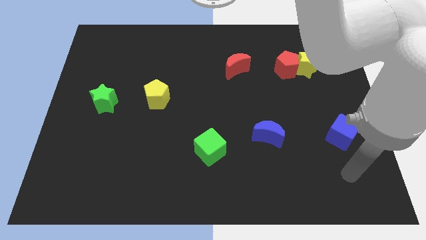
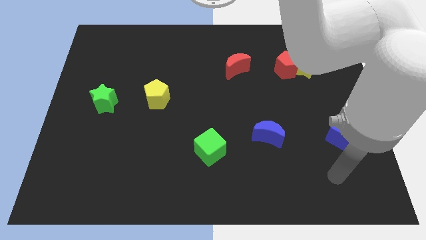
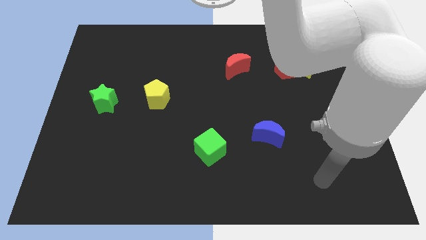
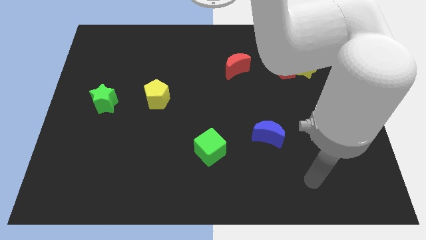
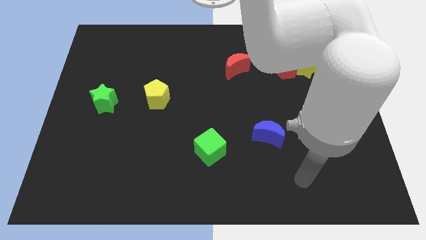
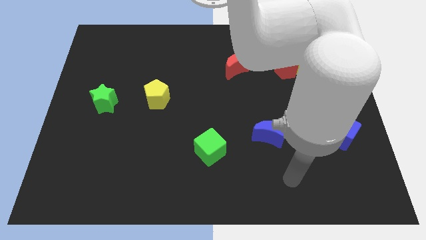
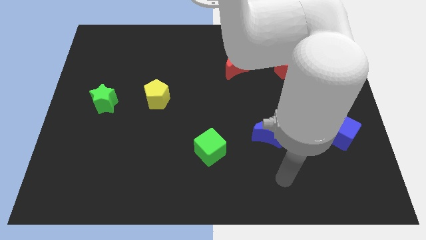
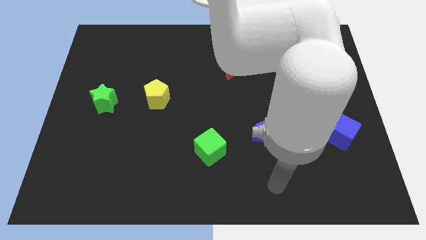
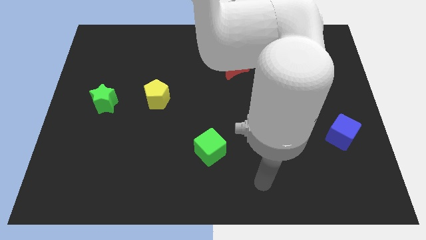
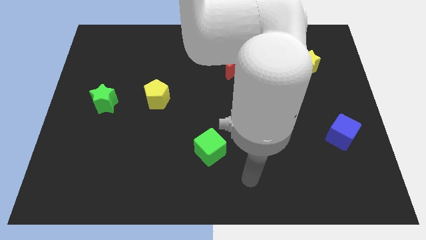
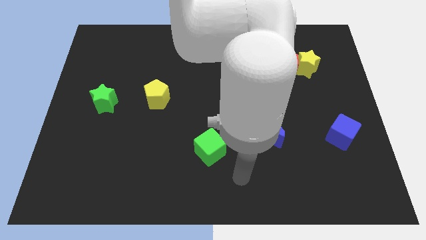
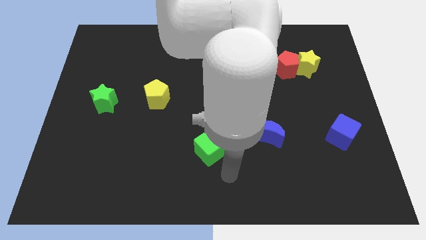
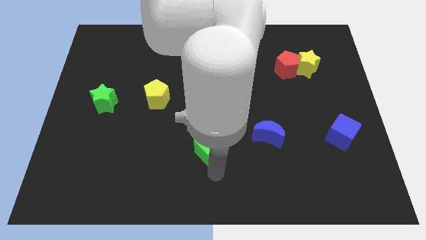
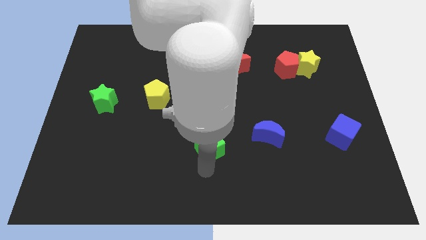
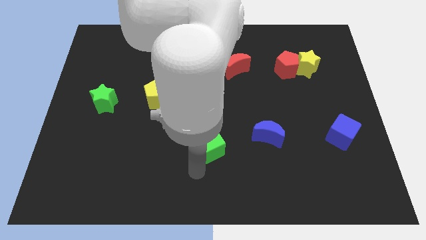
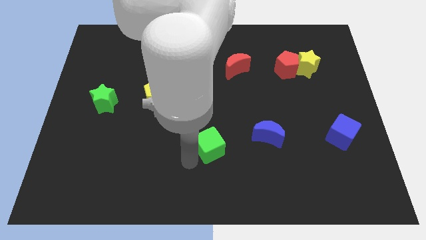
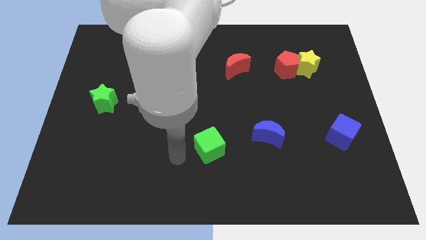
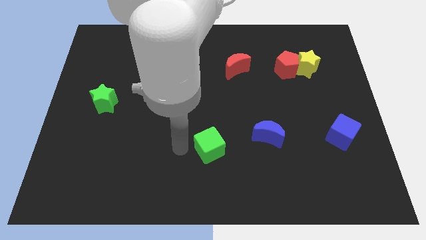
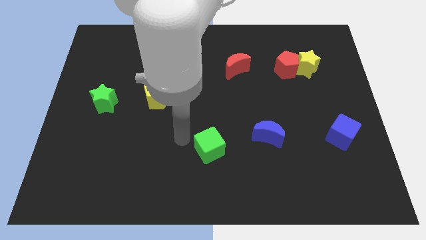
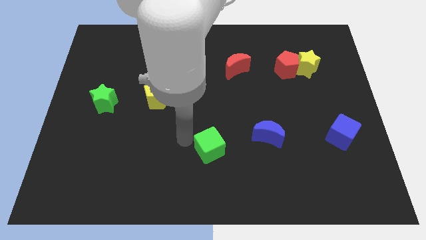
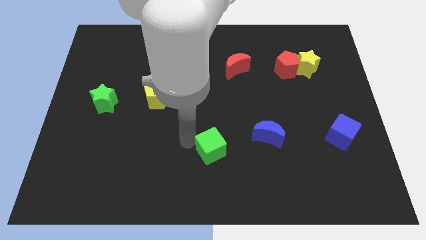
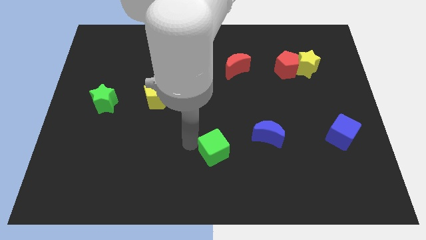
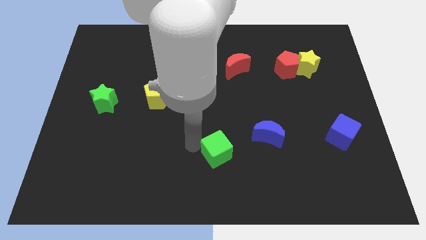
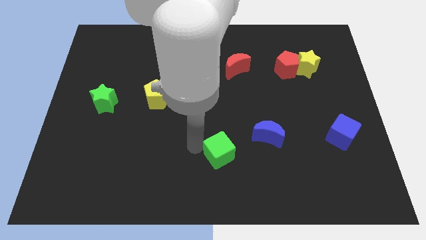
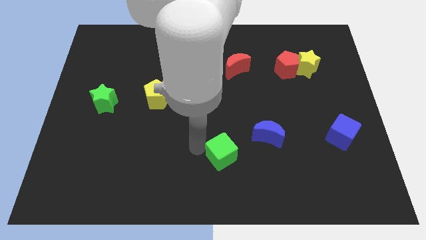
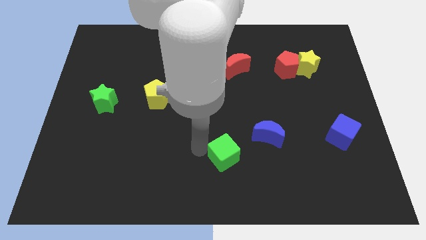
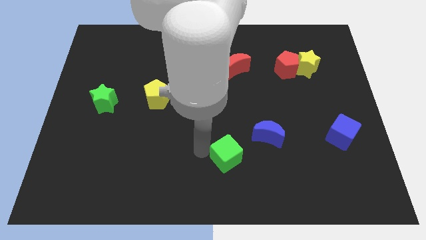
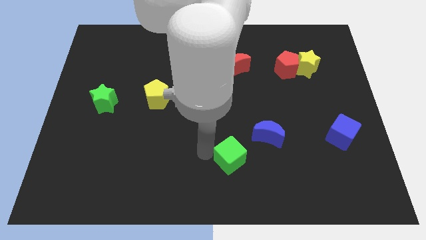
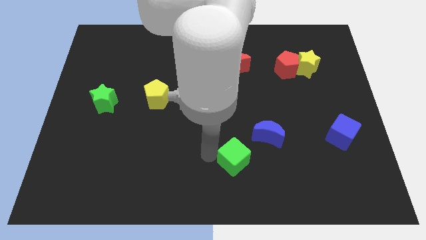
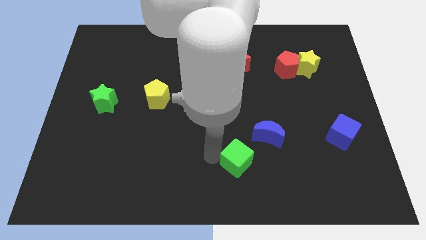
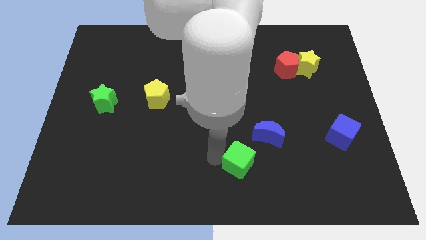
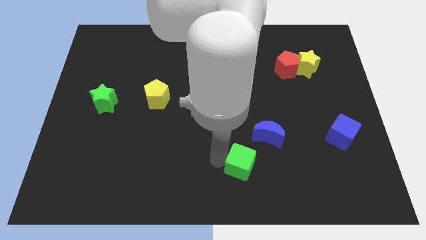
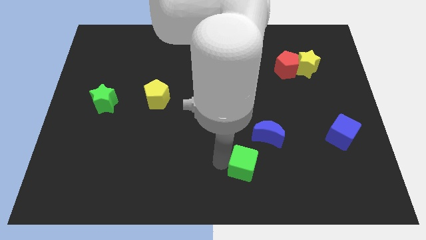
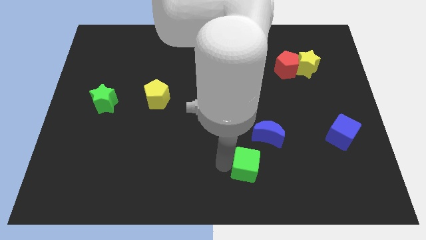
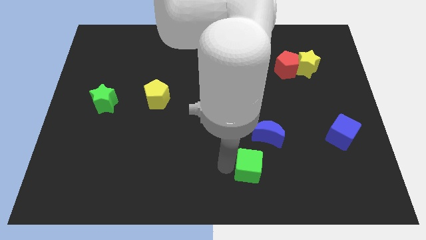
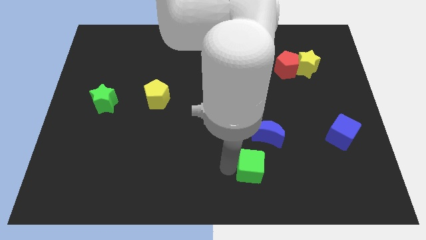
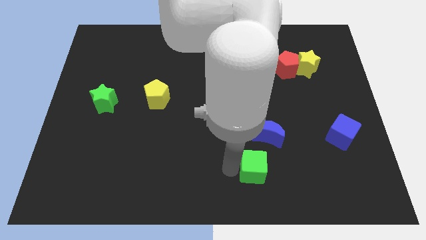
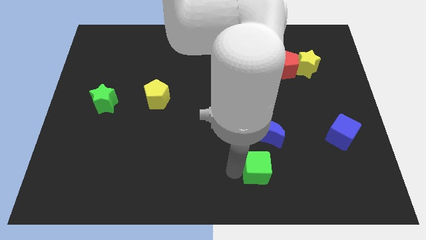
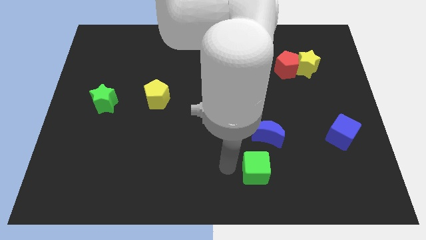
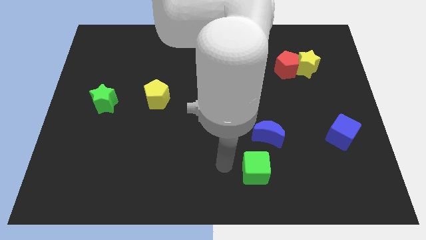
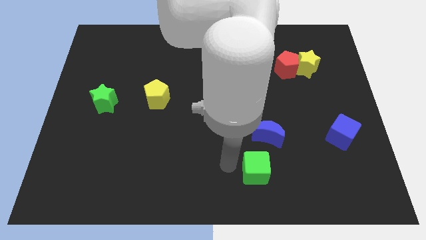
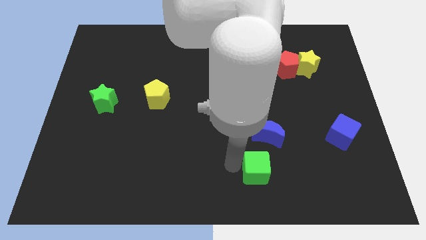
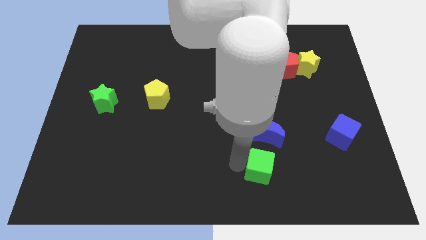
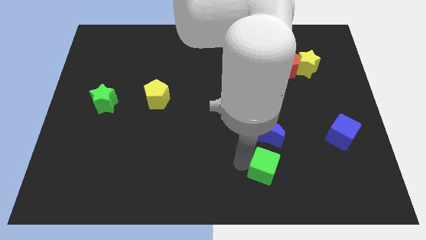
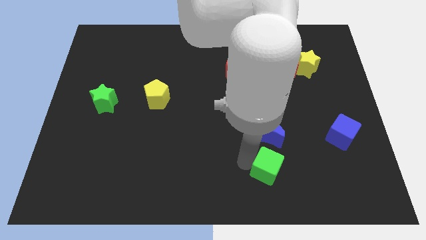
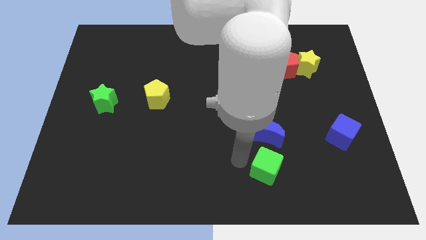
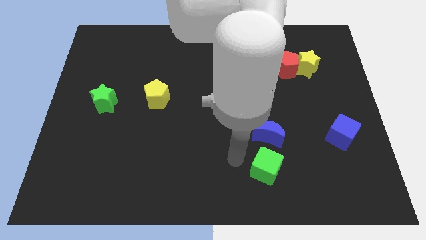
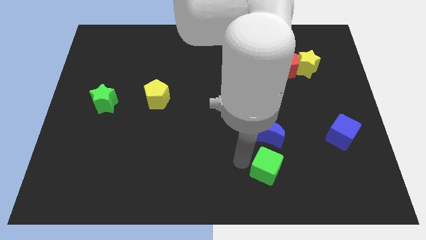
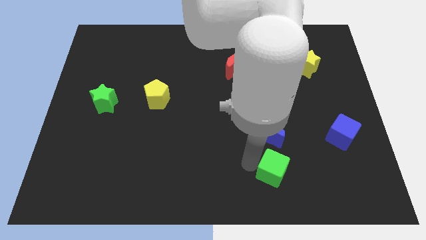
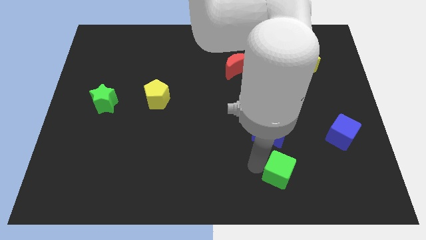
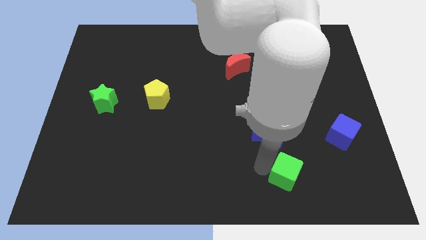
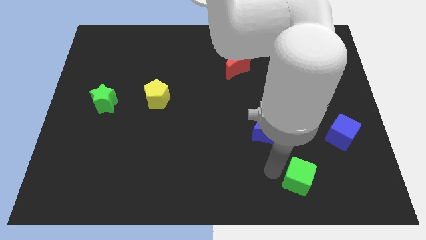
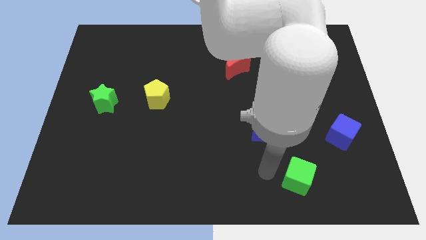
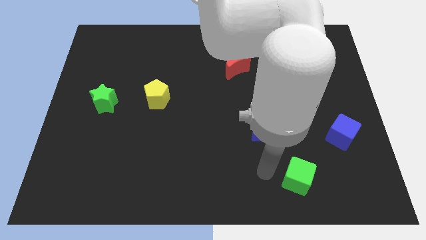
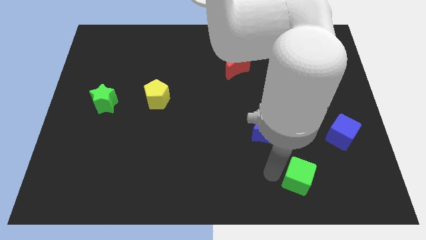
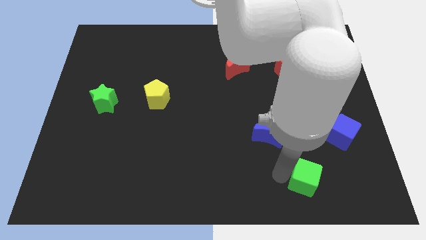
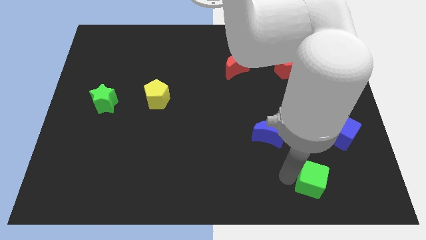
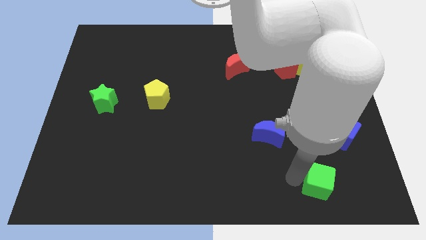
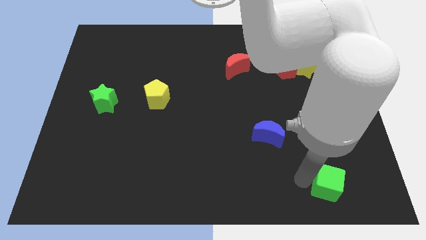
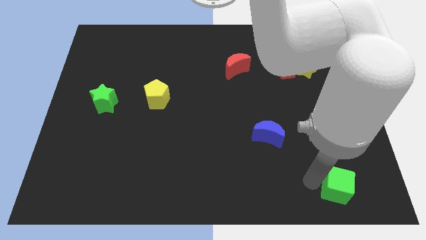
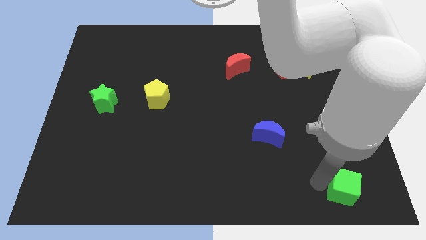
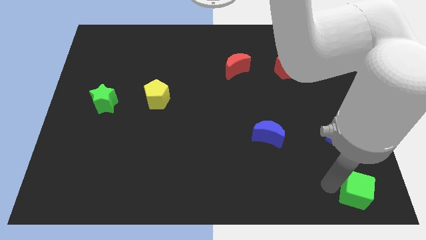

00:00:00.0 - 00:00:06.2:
slide the green cube to the bottom right corner
